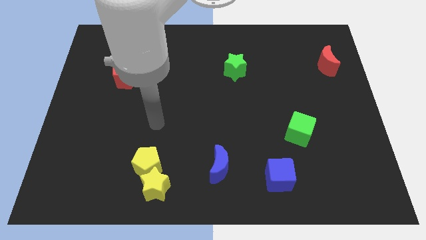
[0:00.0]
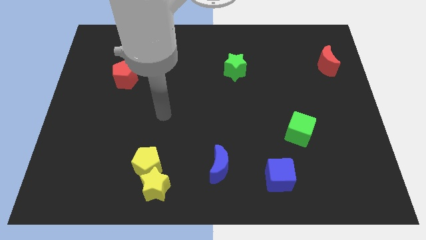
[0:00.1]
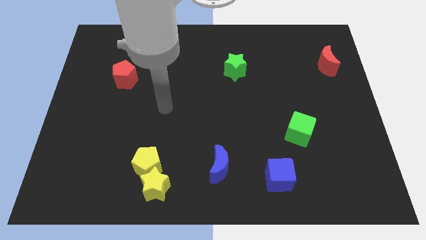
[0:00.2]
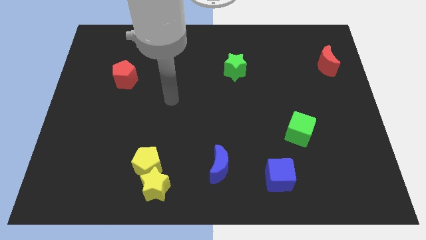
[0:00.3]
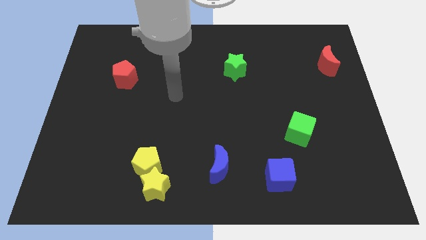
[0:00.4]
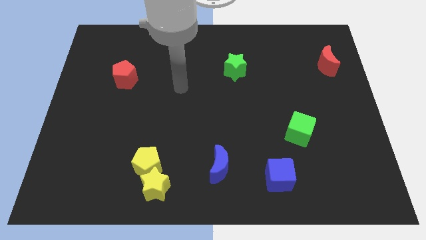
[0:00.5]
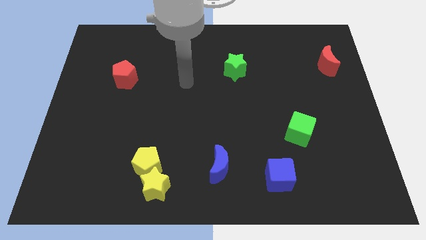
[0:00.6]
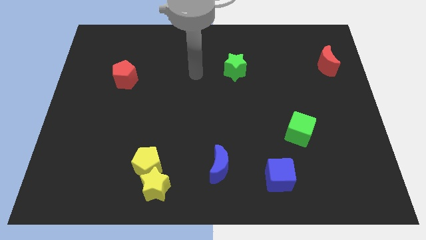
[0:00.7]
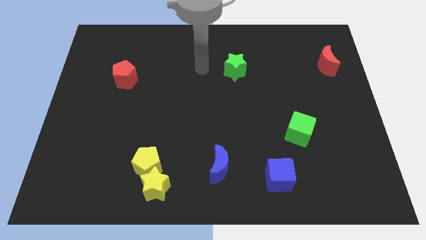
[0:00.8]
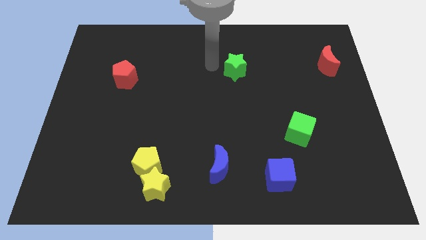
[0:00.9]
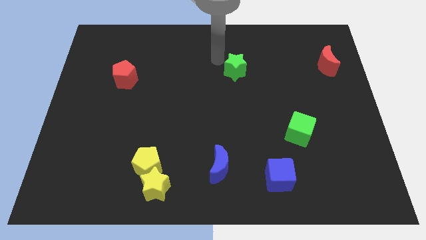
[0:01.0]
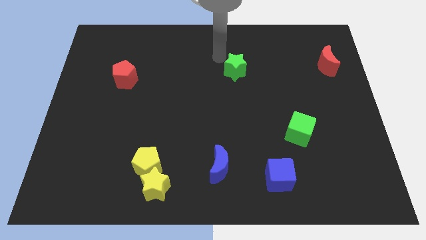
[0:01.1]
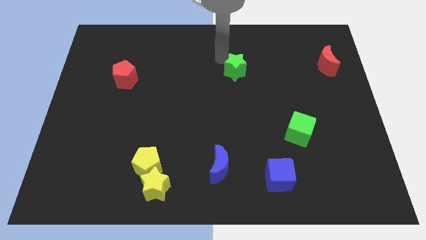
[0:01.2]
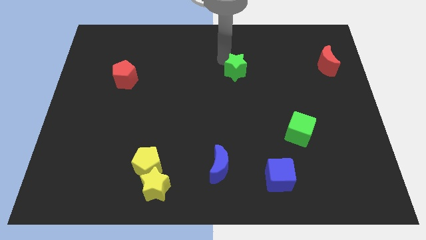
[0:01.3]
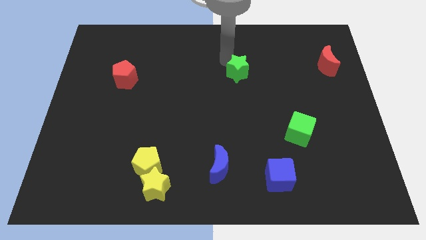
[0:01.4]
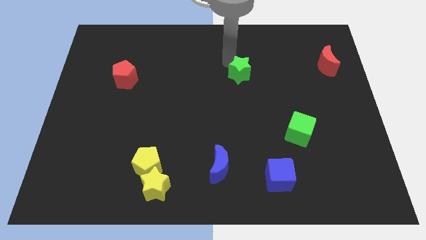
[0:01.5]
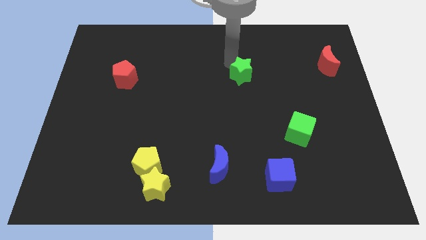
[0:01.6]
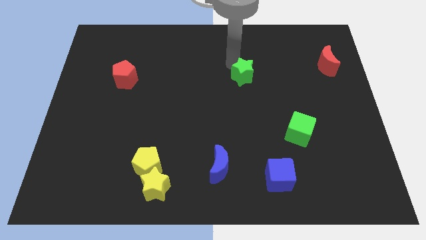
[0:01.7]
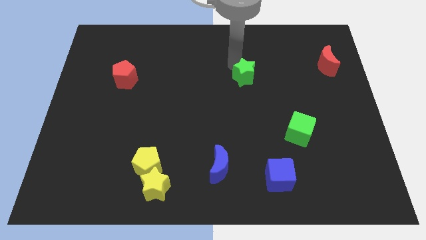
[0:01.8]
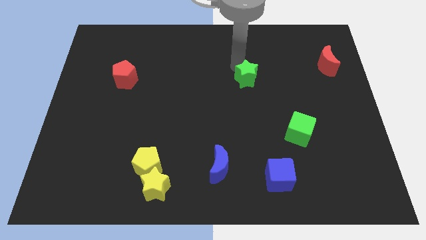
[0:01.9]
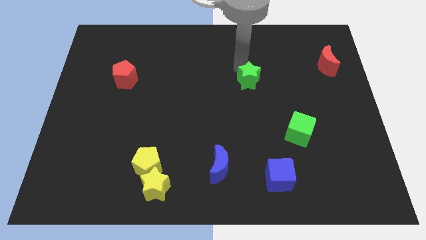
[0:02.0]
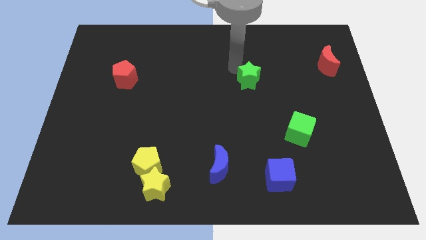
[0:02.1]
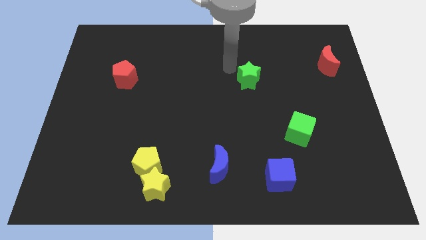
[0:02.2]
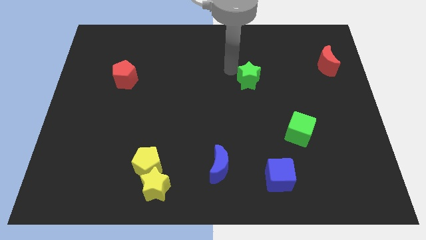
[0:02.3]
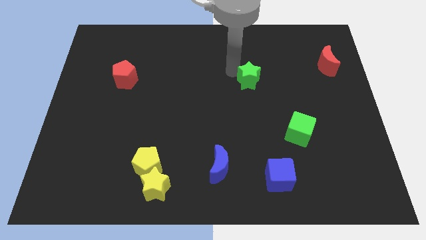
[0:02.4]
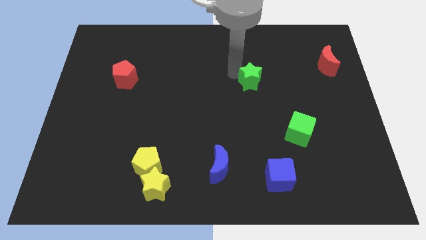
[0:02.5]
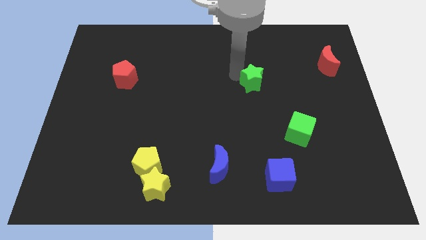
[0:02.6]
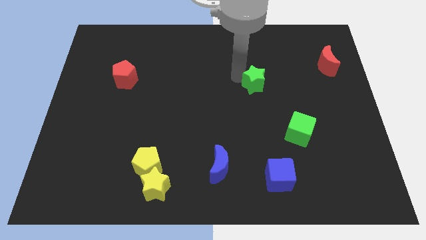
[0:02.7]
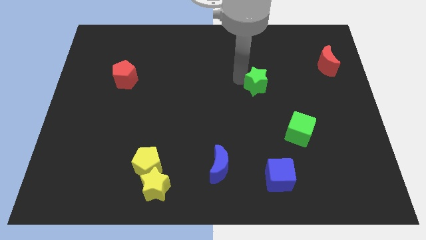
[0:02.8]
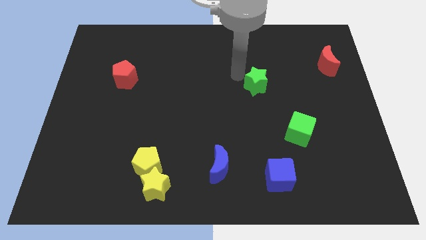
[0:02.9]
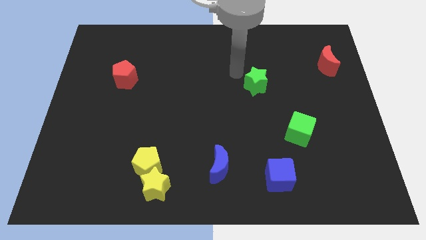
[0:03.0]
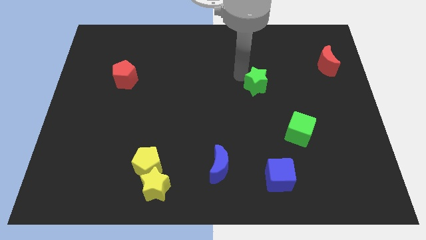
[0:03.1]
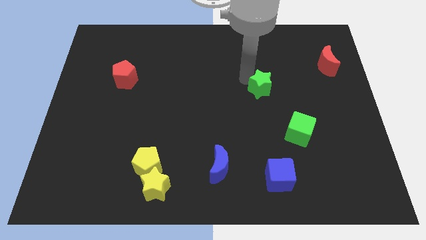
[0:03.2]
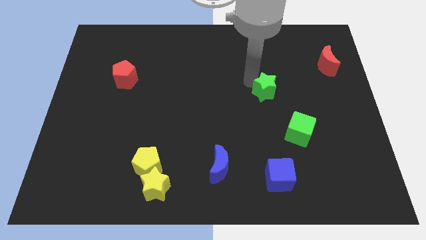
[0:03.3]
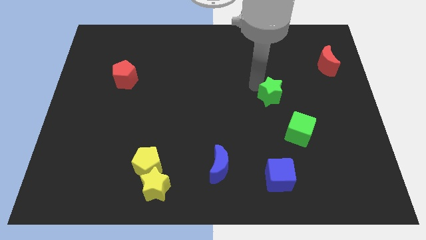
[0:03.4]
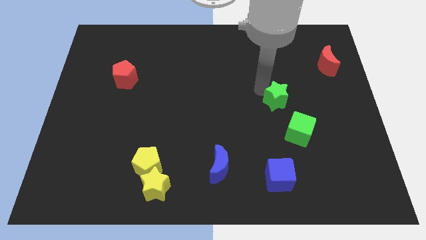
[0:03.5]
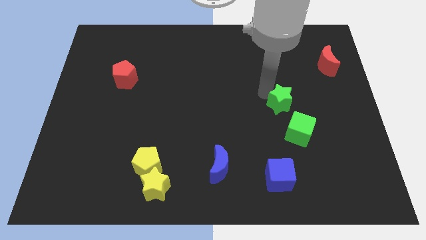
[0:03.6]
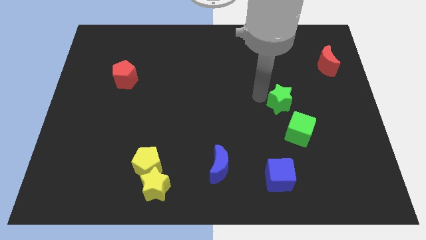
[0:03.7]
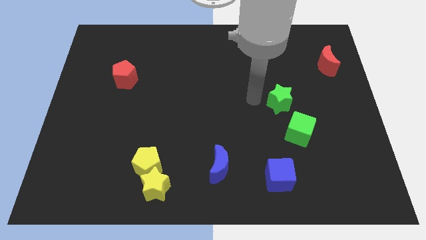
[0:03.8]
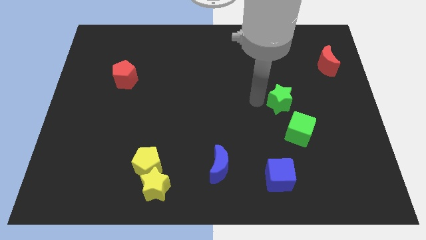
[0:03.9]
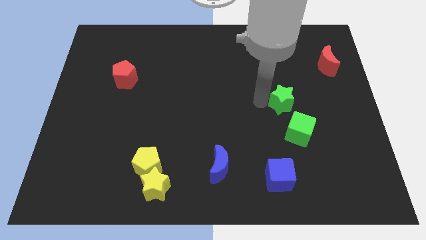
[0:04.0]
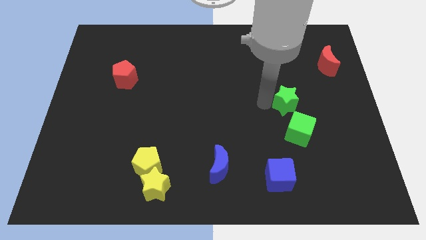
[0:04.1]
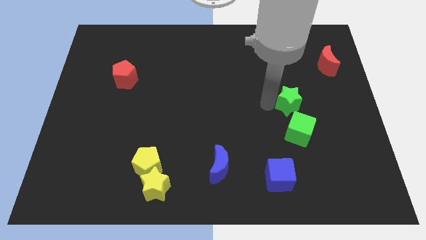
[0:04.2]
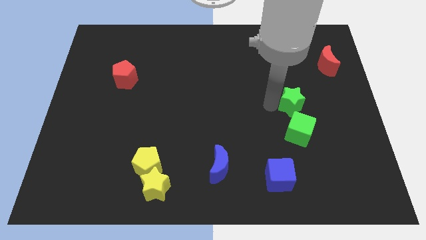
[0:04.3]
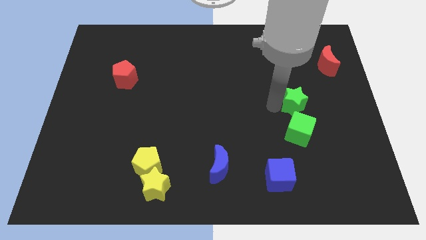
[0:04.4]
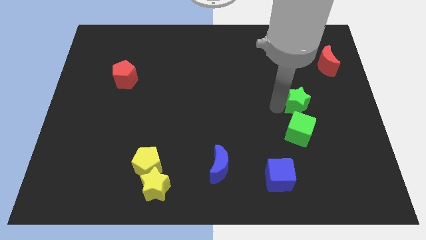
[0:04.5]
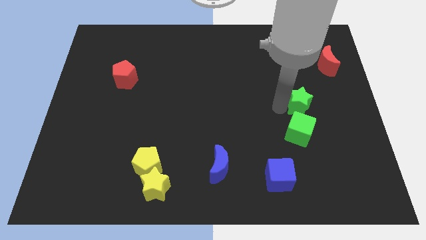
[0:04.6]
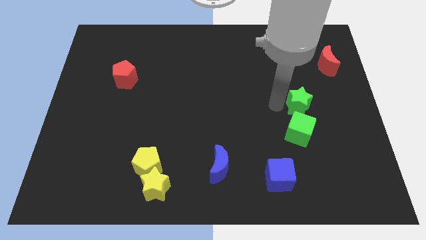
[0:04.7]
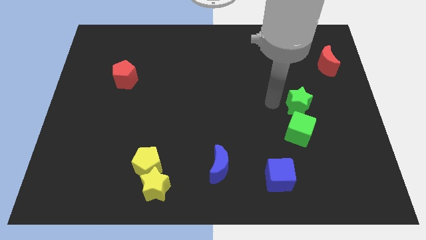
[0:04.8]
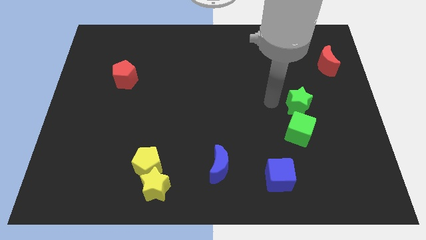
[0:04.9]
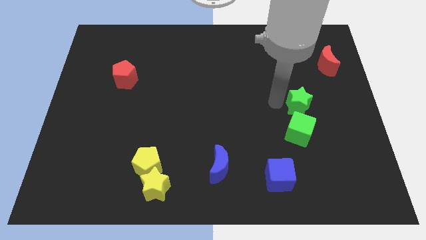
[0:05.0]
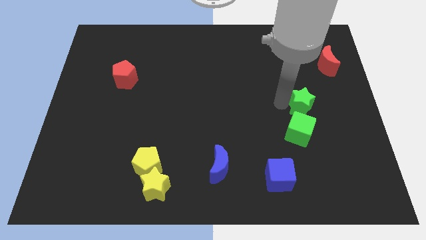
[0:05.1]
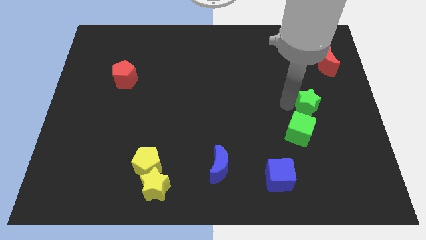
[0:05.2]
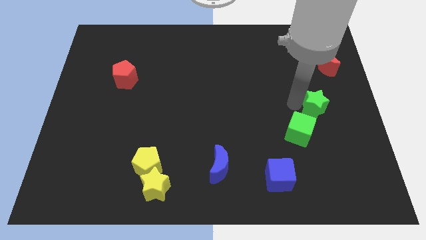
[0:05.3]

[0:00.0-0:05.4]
slide the green star down and right

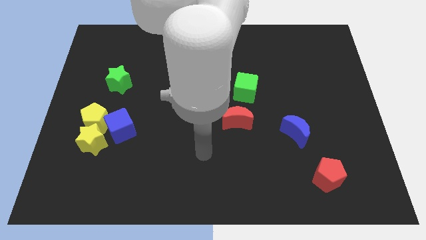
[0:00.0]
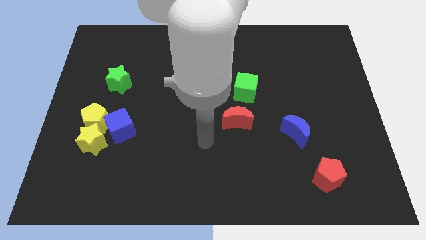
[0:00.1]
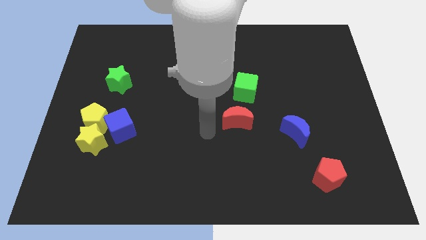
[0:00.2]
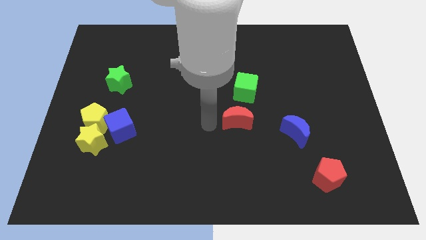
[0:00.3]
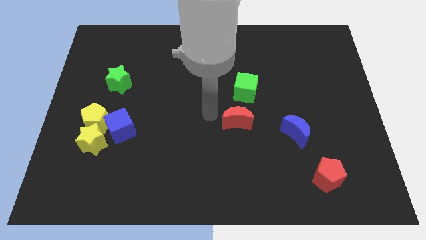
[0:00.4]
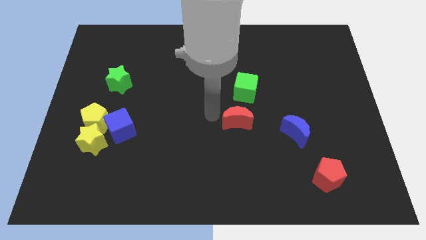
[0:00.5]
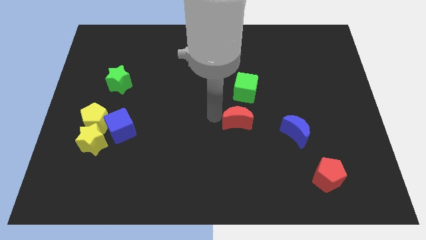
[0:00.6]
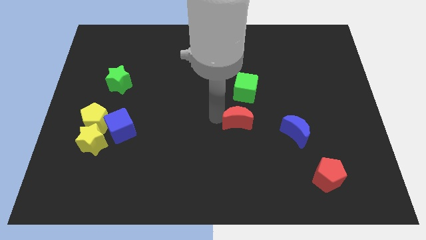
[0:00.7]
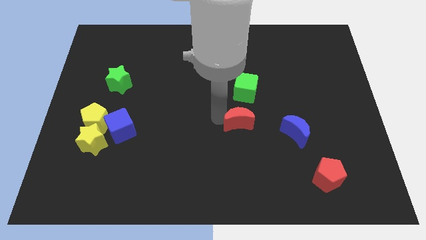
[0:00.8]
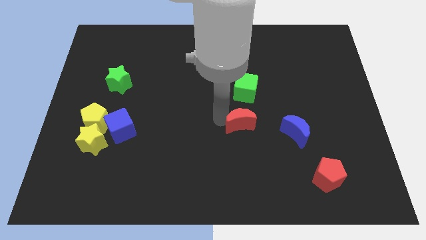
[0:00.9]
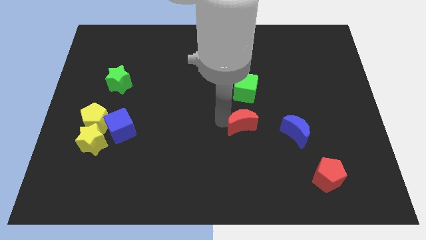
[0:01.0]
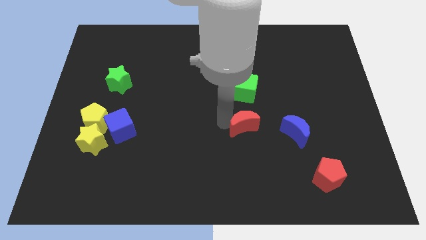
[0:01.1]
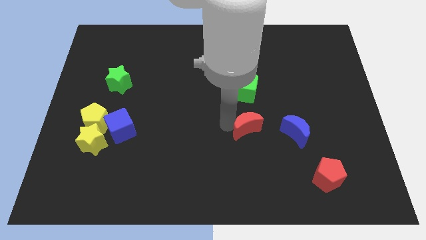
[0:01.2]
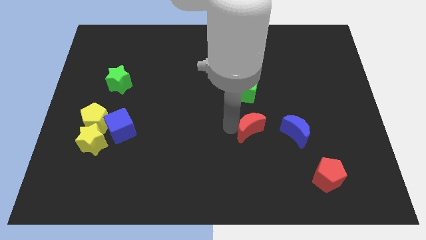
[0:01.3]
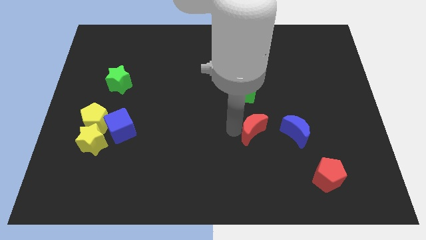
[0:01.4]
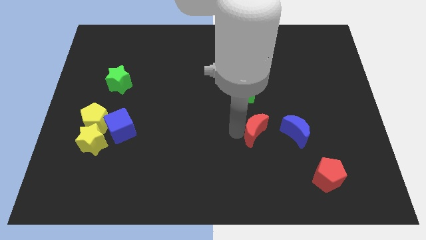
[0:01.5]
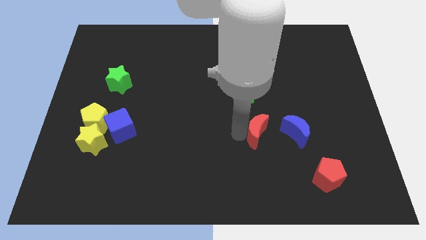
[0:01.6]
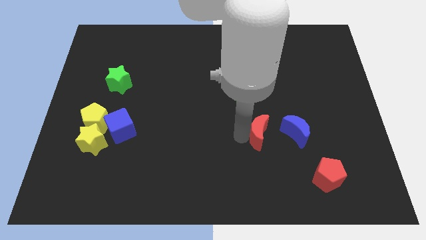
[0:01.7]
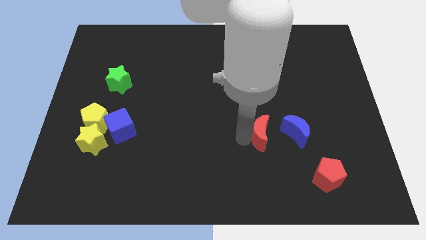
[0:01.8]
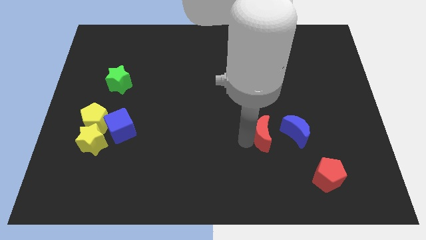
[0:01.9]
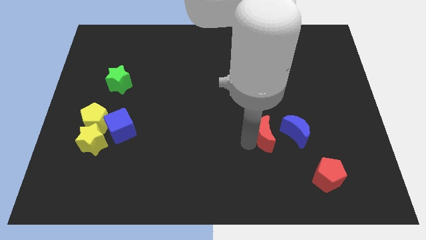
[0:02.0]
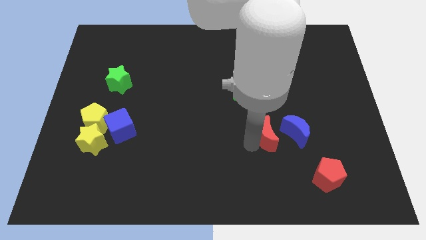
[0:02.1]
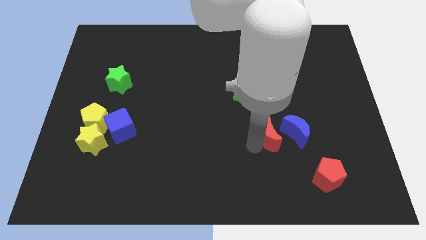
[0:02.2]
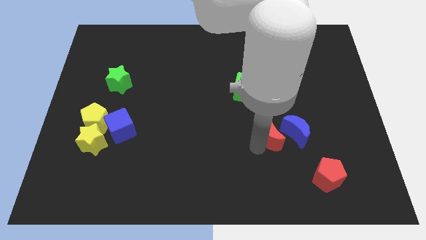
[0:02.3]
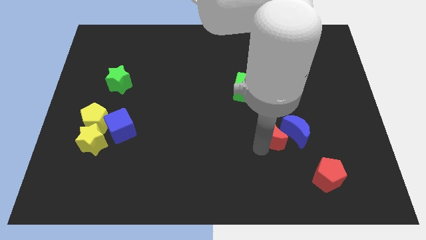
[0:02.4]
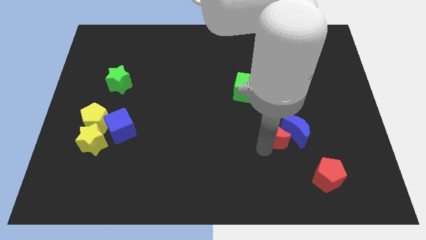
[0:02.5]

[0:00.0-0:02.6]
slightly move the red moon to the right
